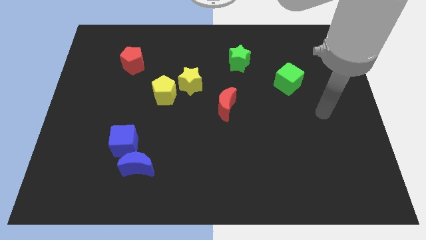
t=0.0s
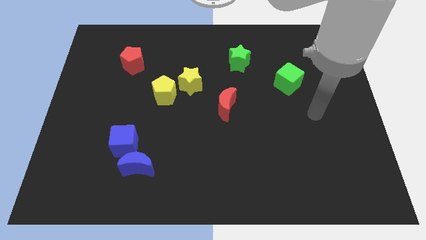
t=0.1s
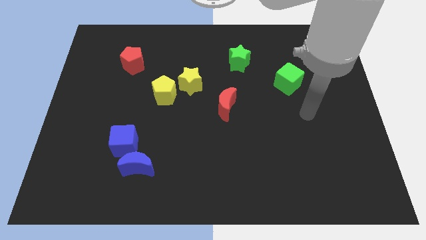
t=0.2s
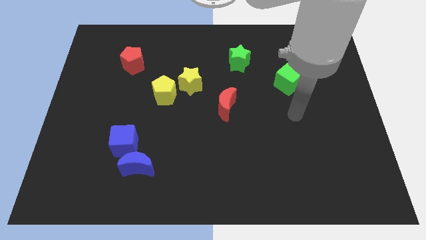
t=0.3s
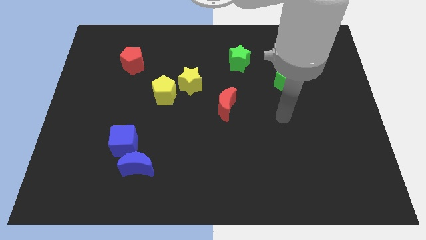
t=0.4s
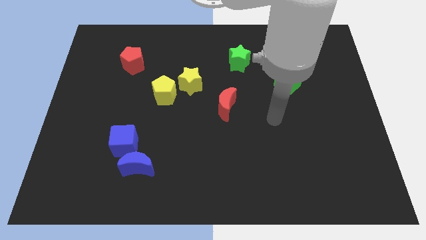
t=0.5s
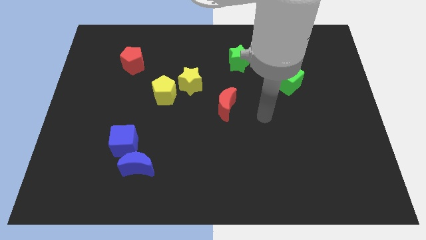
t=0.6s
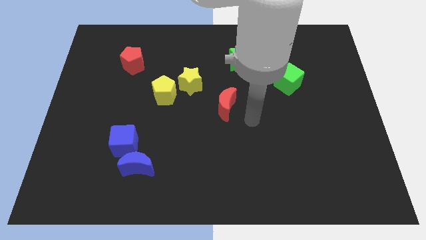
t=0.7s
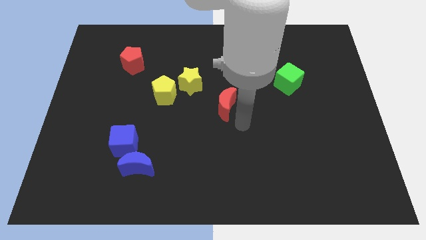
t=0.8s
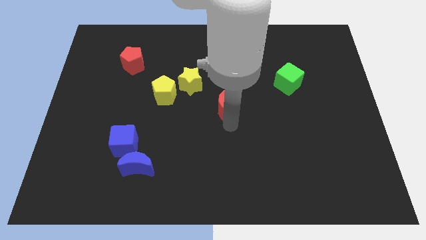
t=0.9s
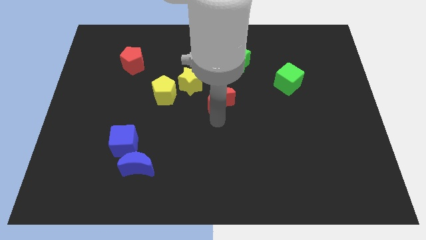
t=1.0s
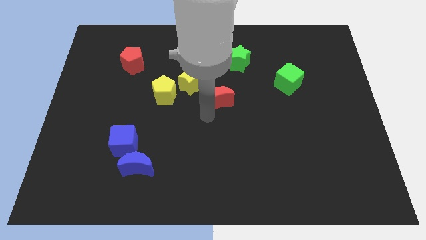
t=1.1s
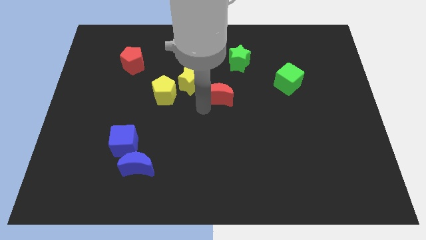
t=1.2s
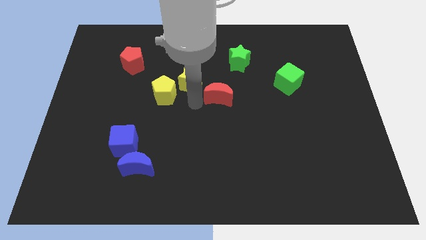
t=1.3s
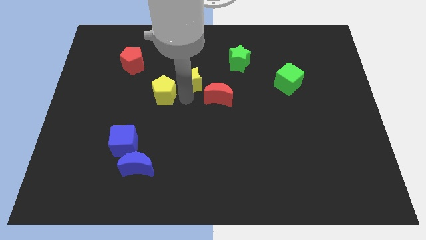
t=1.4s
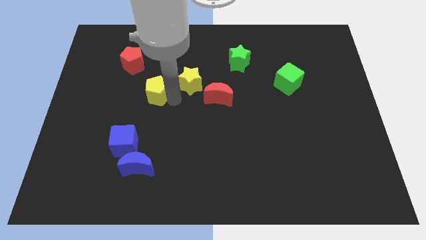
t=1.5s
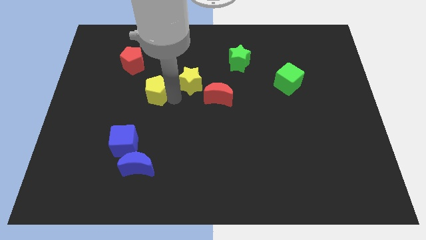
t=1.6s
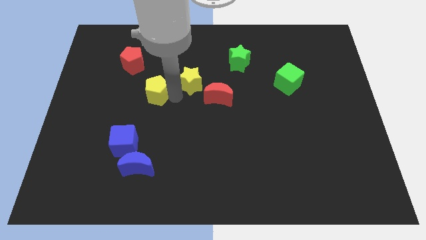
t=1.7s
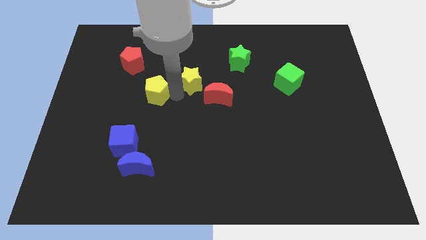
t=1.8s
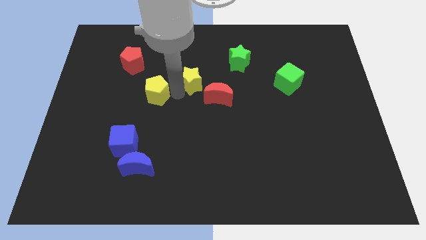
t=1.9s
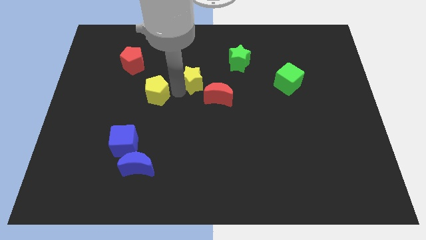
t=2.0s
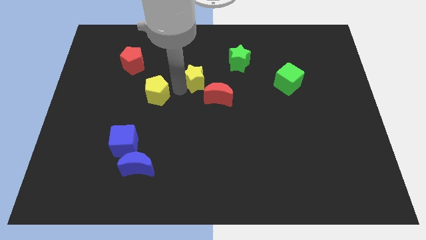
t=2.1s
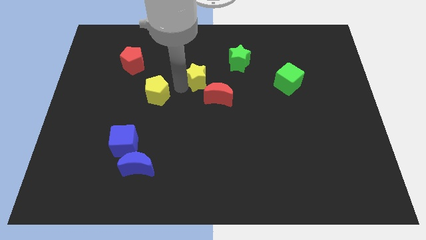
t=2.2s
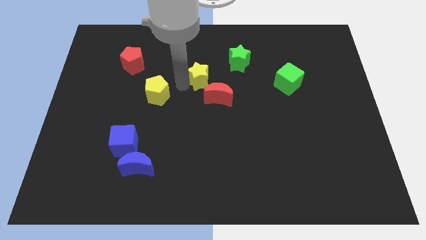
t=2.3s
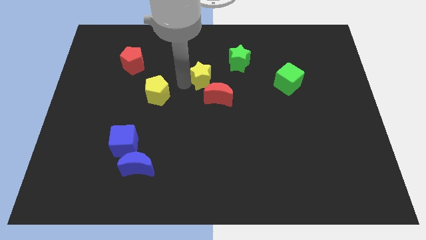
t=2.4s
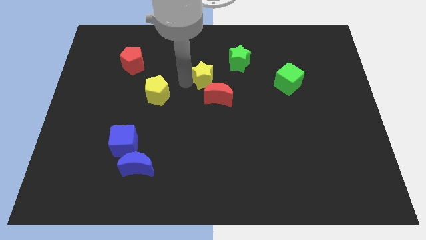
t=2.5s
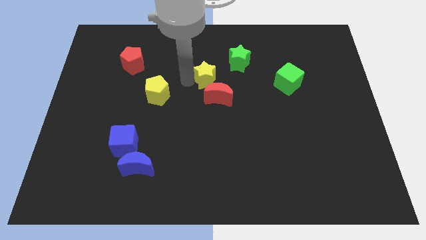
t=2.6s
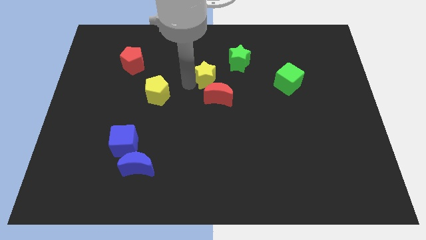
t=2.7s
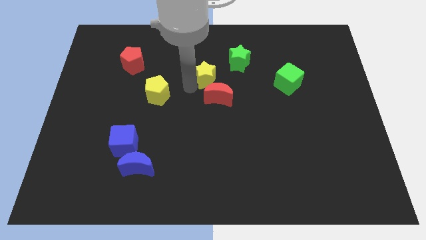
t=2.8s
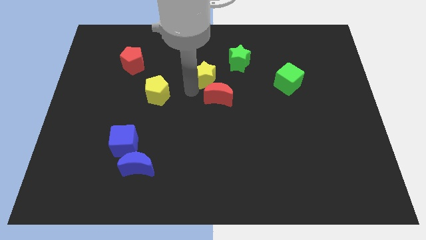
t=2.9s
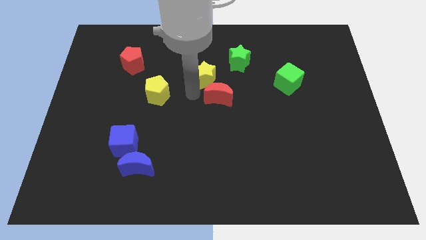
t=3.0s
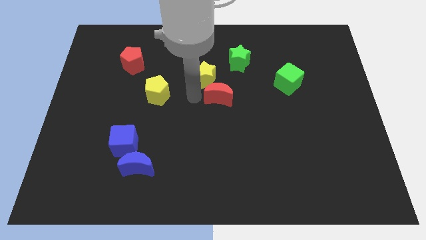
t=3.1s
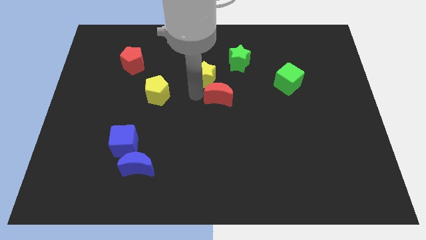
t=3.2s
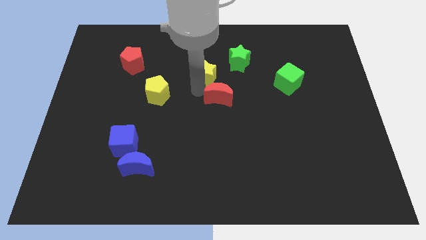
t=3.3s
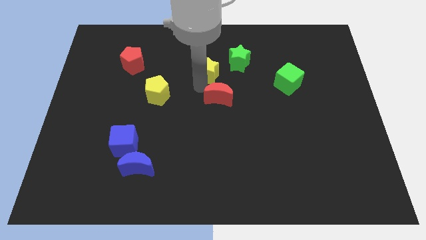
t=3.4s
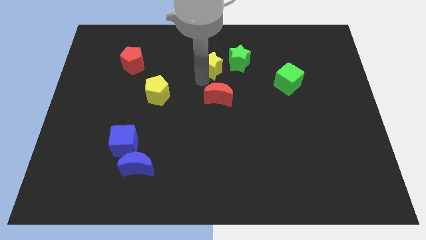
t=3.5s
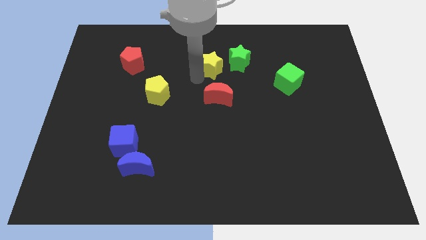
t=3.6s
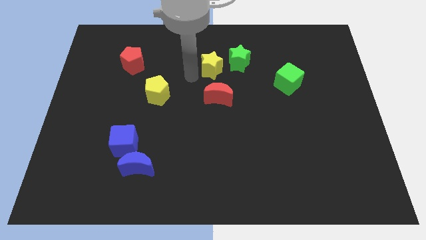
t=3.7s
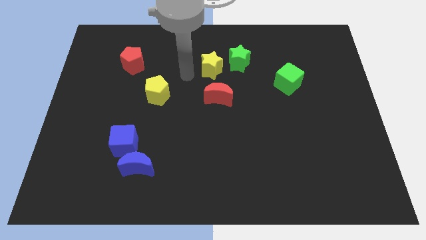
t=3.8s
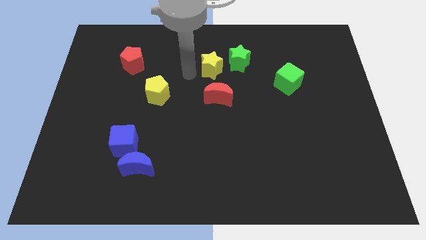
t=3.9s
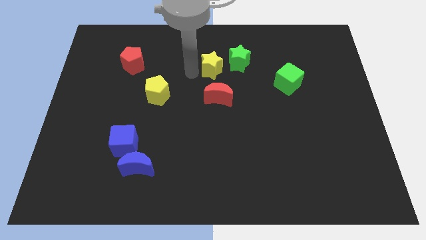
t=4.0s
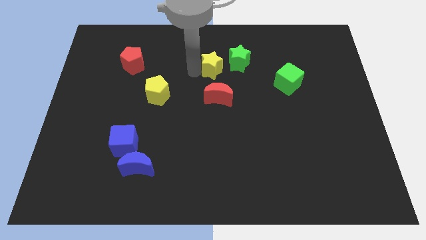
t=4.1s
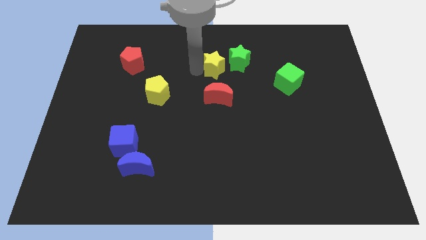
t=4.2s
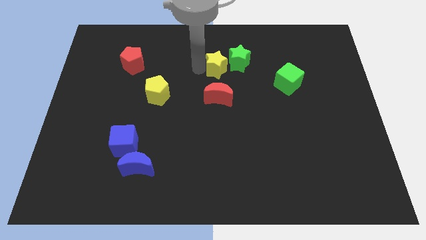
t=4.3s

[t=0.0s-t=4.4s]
put the yellow star next to the green star

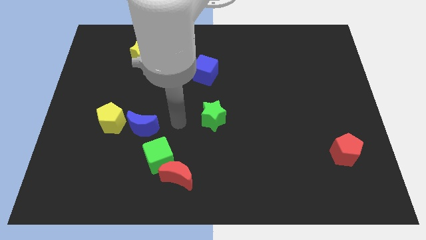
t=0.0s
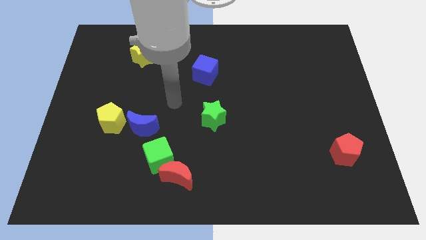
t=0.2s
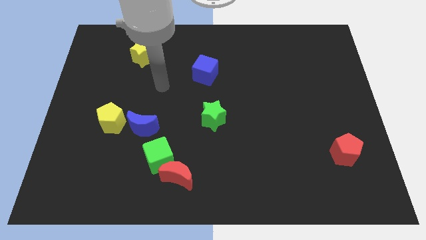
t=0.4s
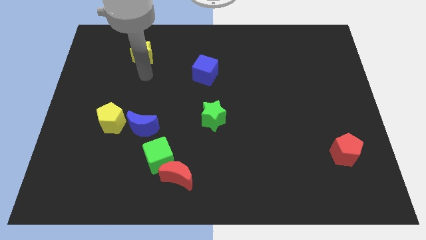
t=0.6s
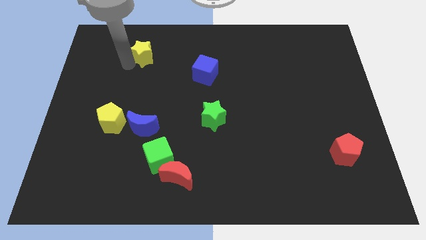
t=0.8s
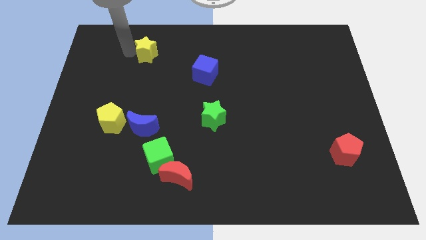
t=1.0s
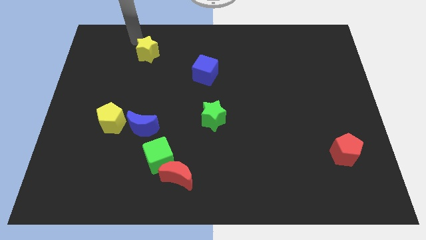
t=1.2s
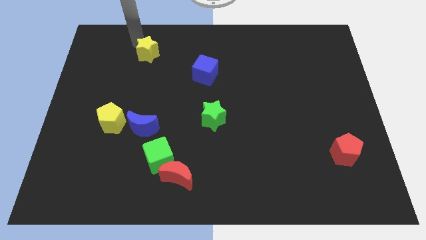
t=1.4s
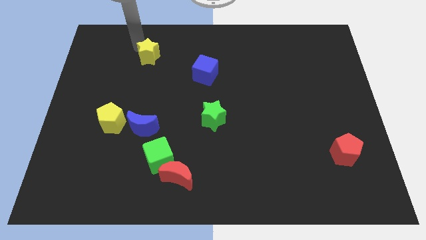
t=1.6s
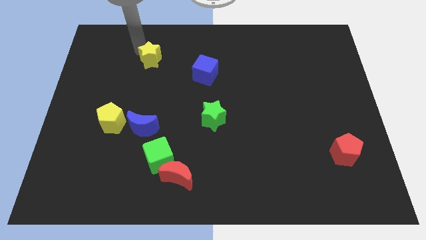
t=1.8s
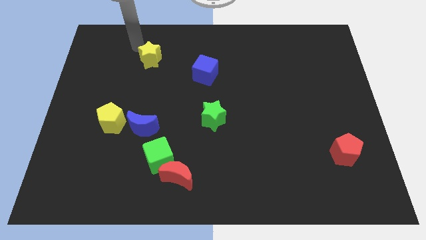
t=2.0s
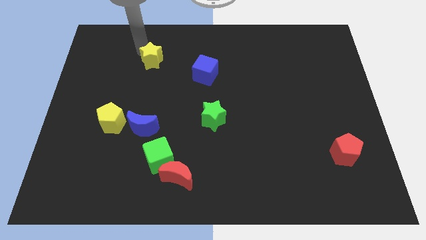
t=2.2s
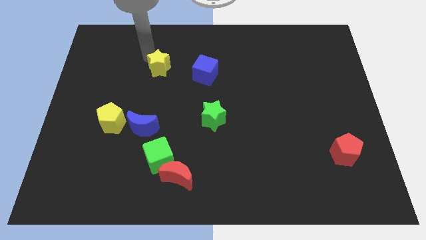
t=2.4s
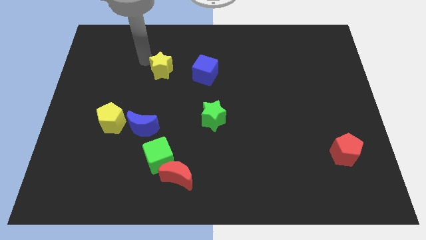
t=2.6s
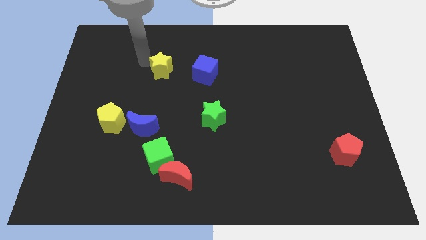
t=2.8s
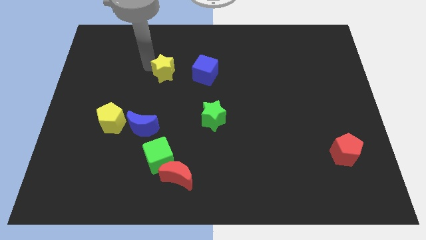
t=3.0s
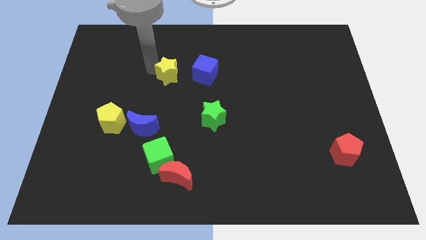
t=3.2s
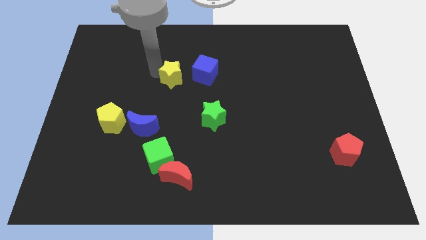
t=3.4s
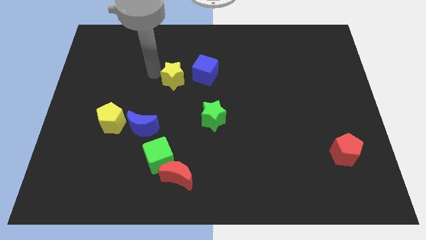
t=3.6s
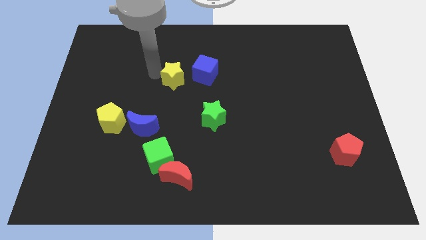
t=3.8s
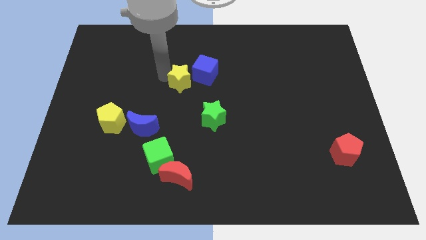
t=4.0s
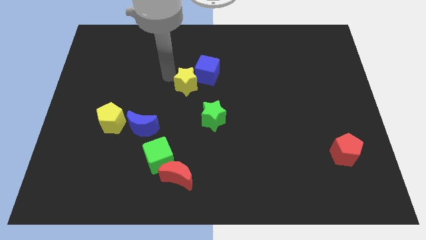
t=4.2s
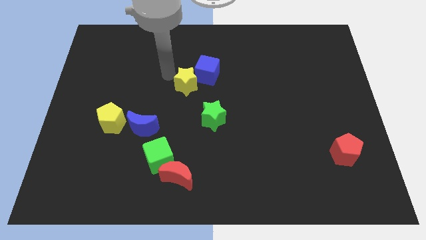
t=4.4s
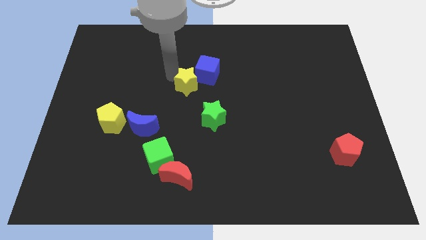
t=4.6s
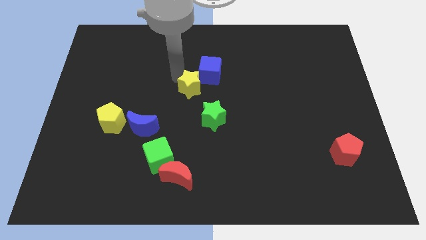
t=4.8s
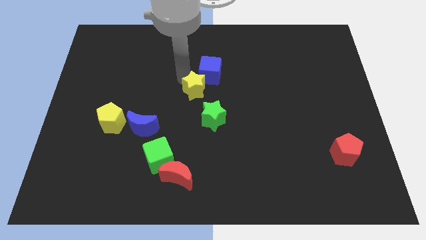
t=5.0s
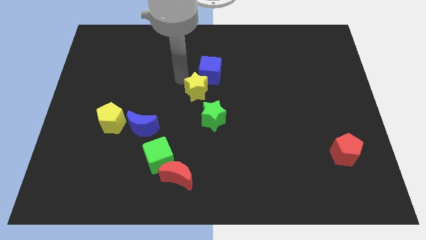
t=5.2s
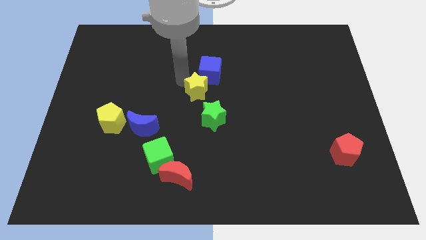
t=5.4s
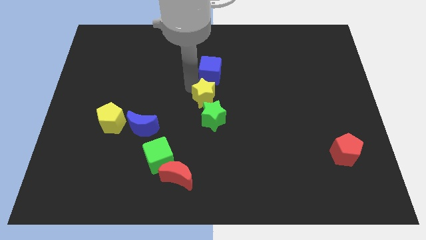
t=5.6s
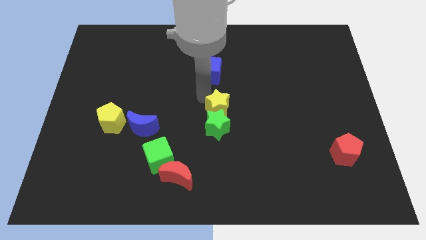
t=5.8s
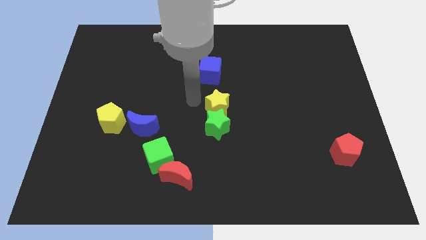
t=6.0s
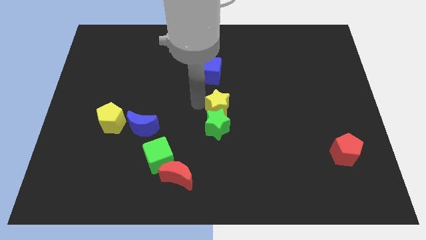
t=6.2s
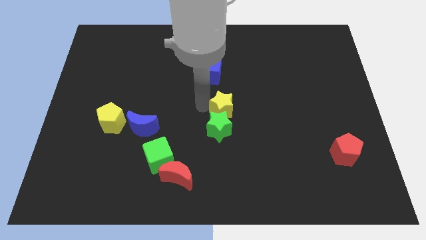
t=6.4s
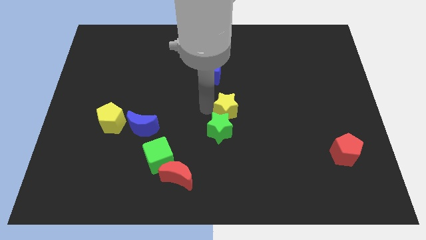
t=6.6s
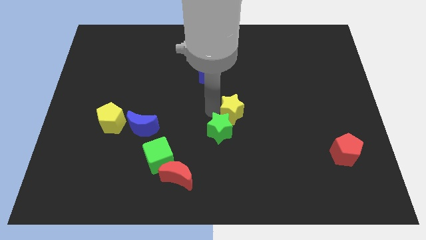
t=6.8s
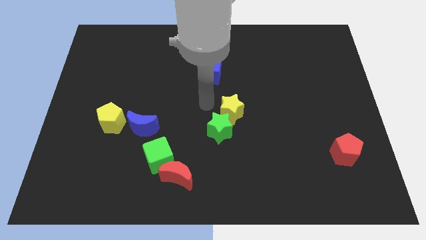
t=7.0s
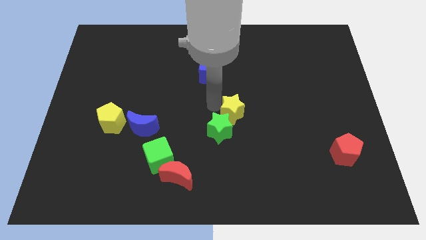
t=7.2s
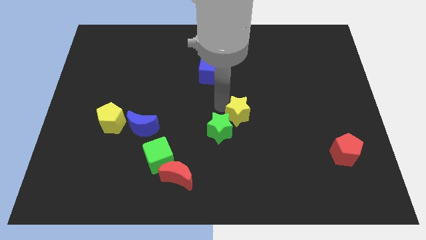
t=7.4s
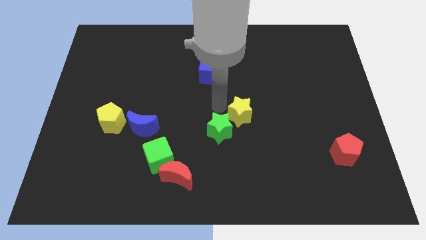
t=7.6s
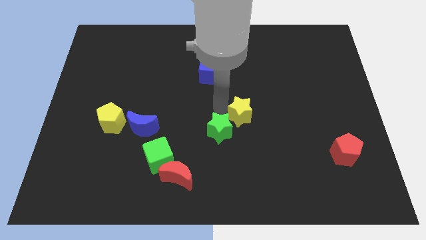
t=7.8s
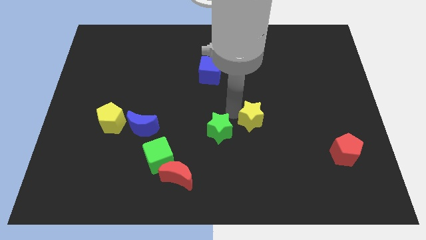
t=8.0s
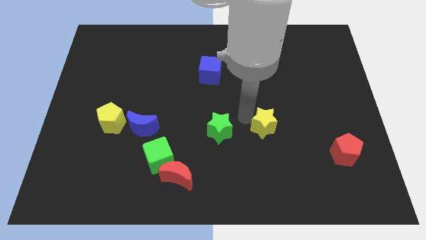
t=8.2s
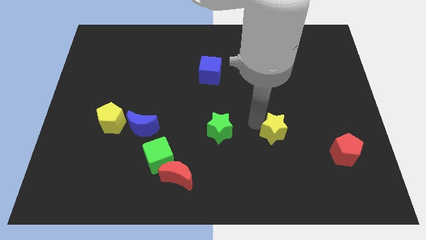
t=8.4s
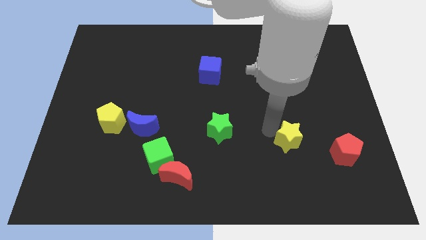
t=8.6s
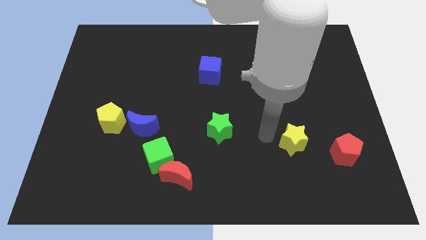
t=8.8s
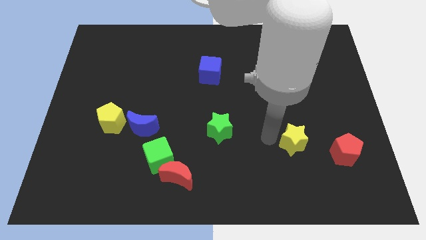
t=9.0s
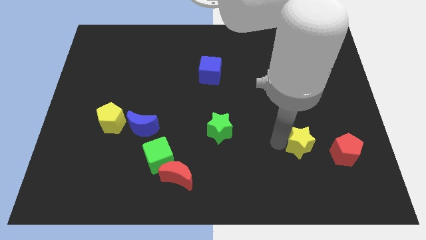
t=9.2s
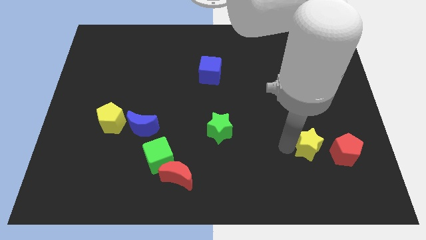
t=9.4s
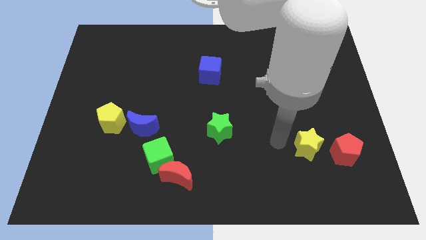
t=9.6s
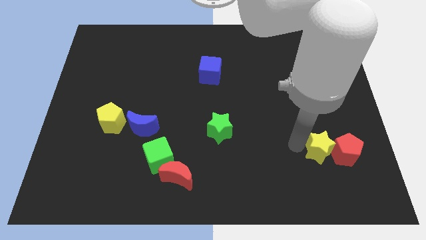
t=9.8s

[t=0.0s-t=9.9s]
push the yellow star towards the red pentagon
